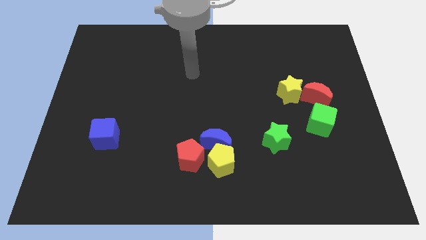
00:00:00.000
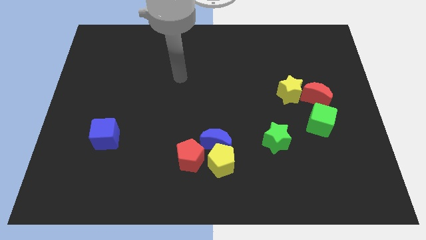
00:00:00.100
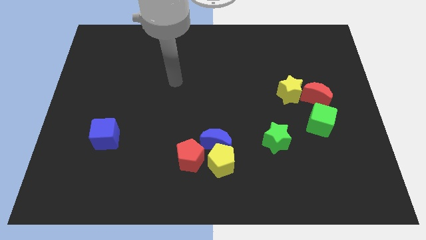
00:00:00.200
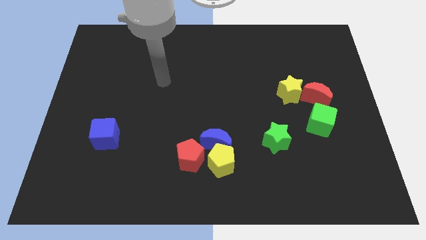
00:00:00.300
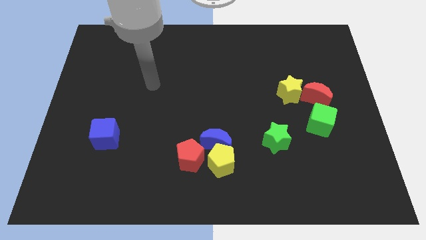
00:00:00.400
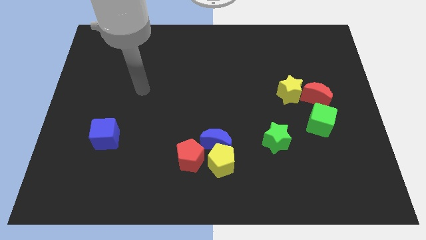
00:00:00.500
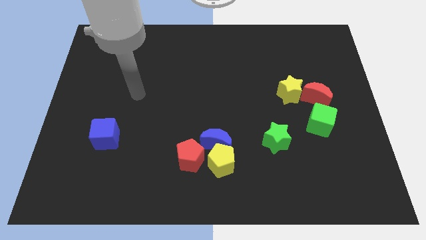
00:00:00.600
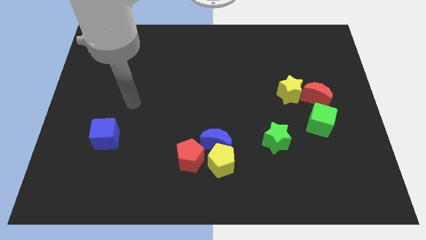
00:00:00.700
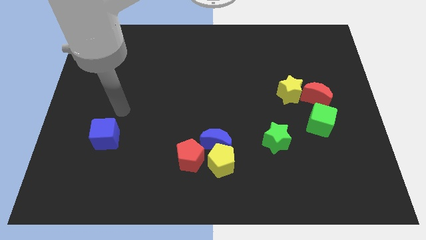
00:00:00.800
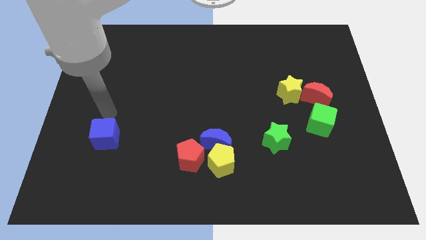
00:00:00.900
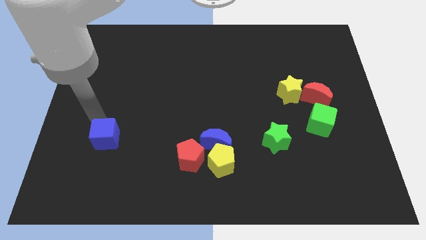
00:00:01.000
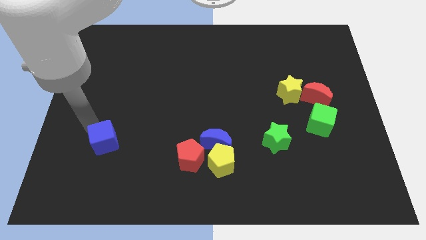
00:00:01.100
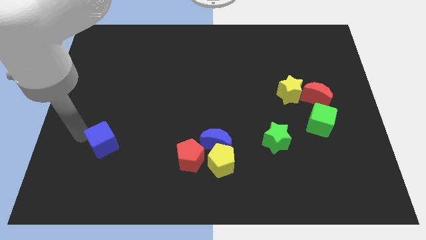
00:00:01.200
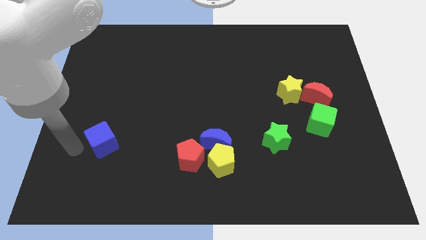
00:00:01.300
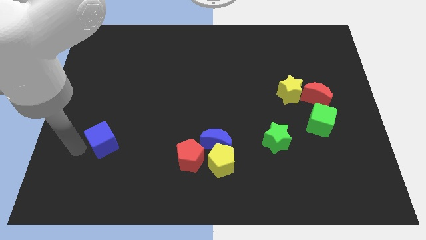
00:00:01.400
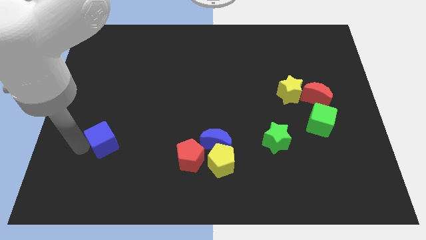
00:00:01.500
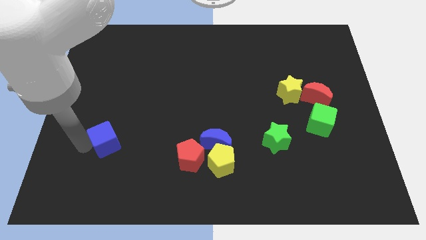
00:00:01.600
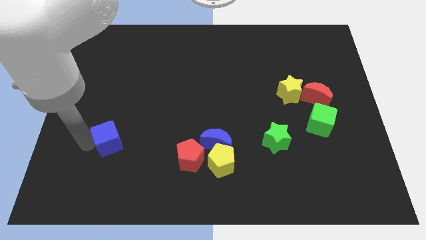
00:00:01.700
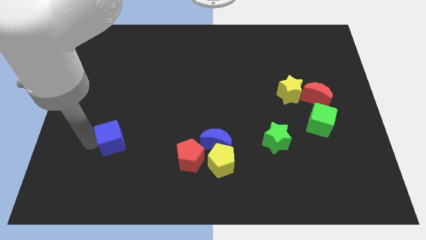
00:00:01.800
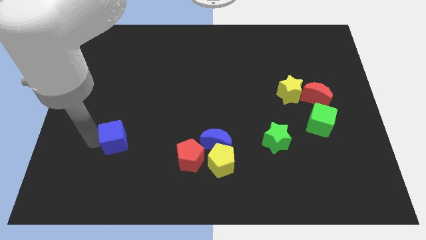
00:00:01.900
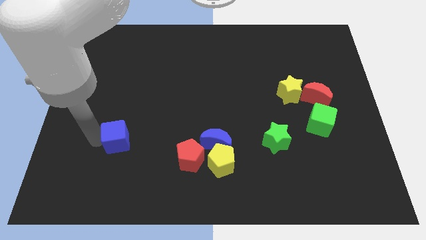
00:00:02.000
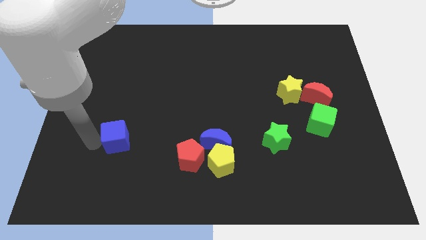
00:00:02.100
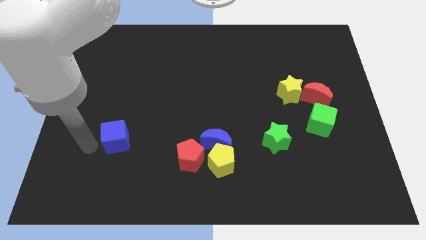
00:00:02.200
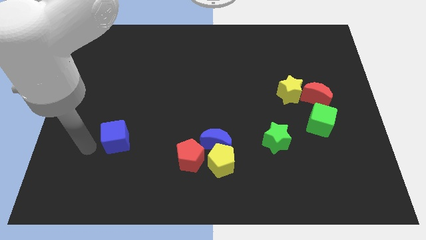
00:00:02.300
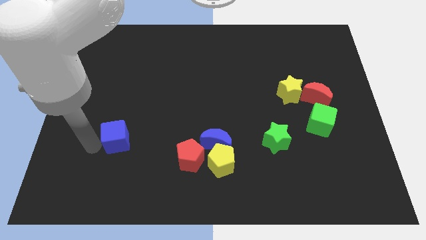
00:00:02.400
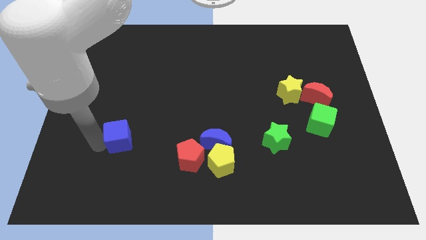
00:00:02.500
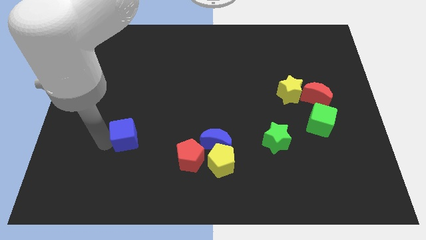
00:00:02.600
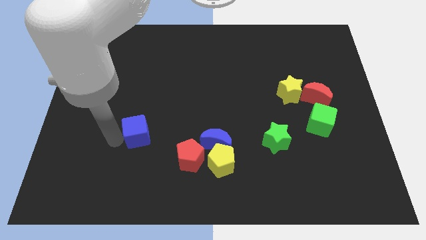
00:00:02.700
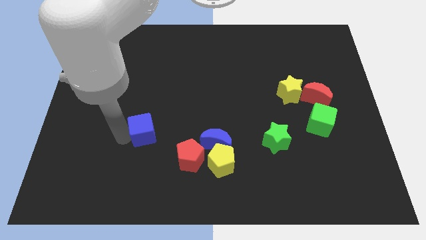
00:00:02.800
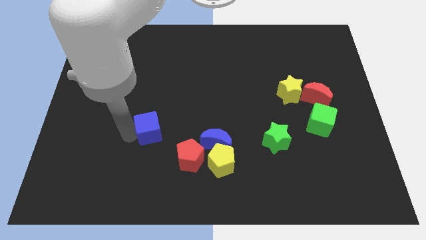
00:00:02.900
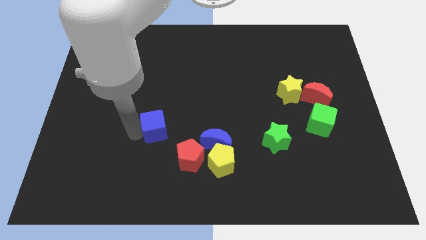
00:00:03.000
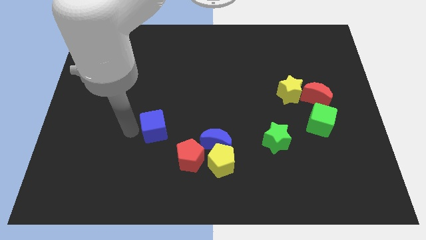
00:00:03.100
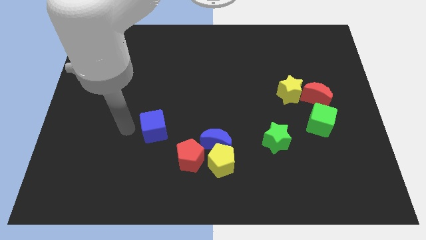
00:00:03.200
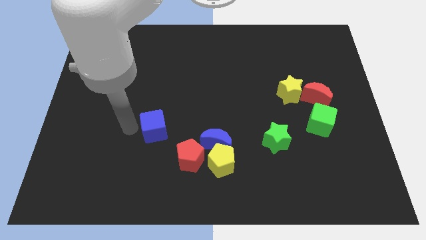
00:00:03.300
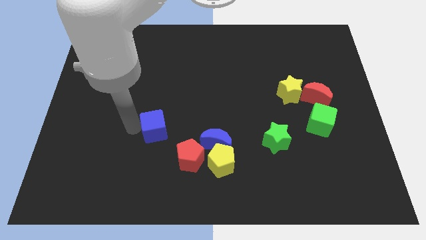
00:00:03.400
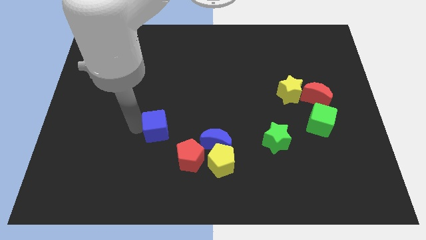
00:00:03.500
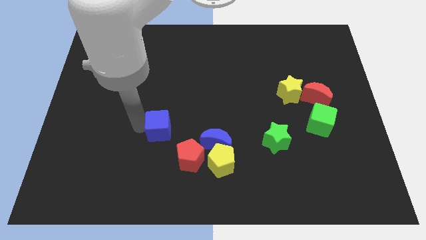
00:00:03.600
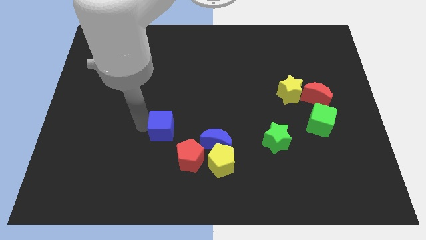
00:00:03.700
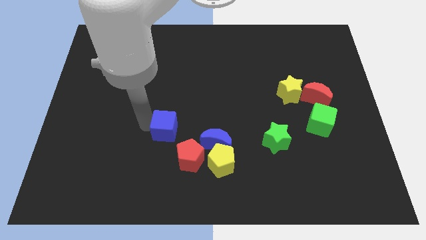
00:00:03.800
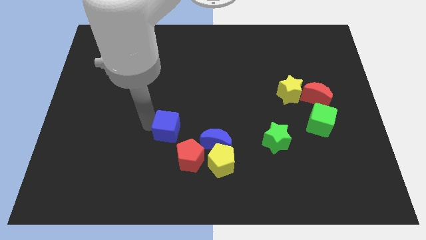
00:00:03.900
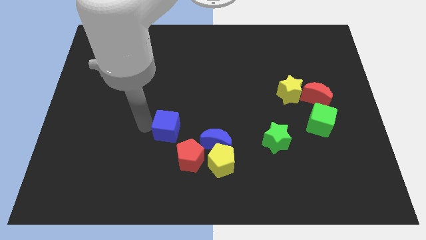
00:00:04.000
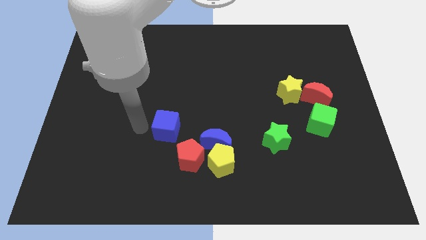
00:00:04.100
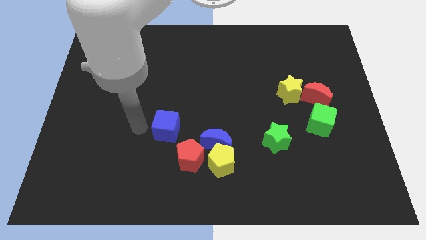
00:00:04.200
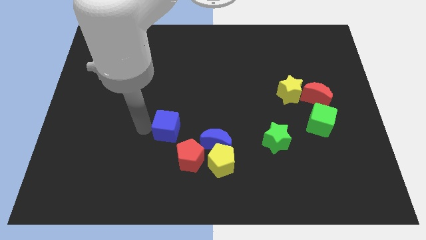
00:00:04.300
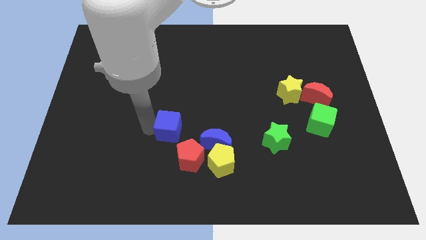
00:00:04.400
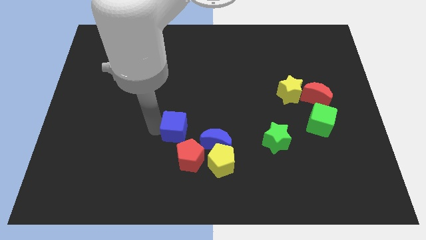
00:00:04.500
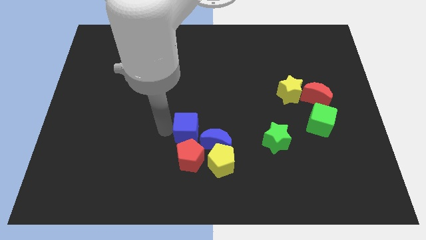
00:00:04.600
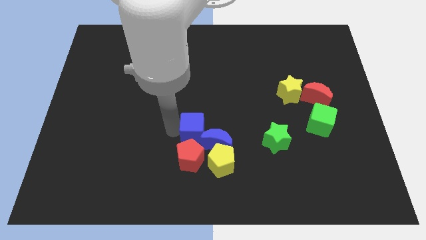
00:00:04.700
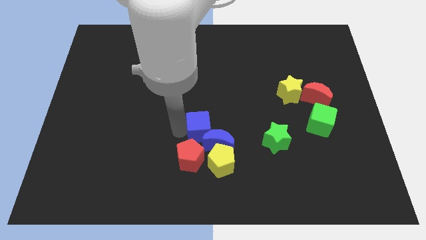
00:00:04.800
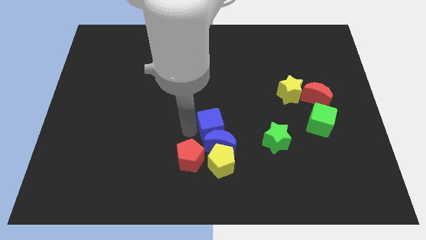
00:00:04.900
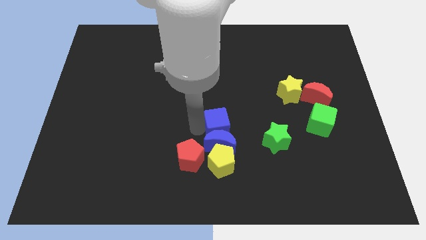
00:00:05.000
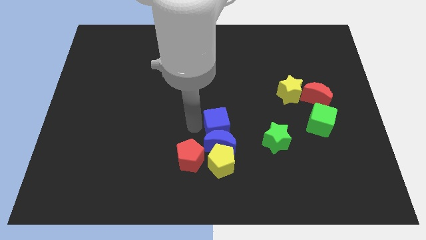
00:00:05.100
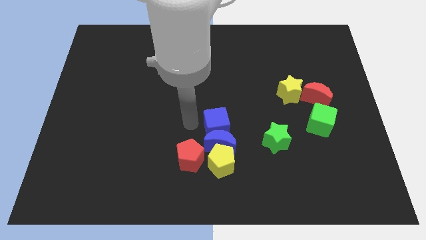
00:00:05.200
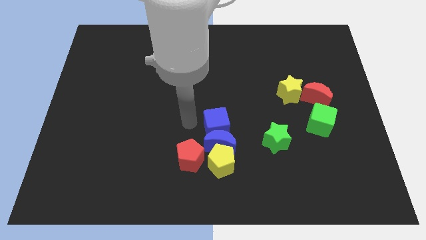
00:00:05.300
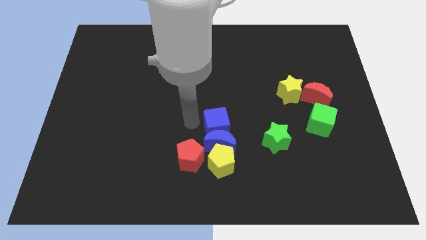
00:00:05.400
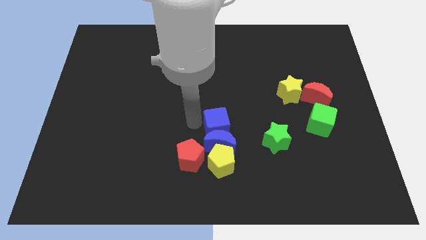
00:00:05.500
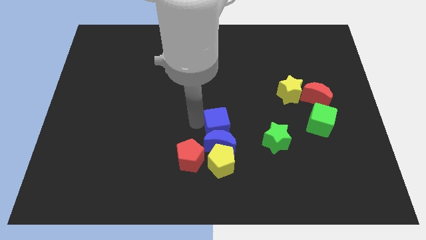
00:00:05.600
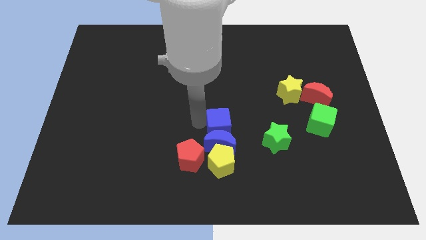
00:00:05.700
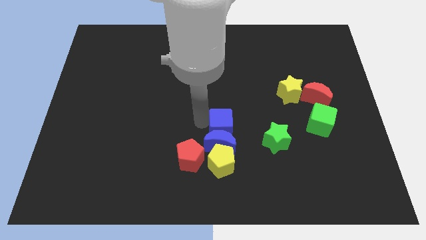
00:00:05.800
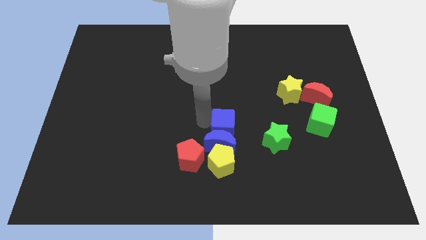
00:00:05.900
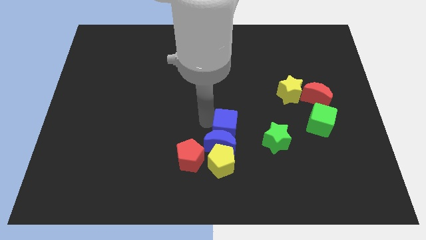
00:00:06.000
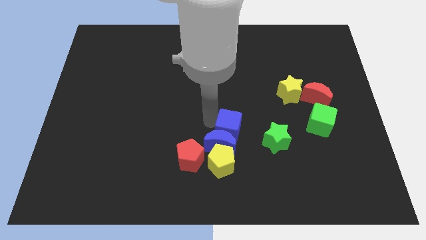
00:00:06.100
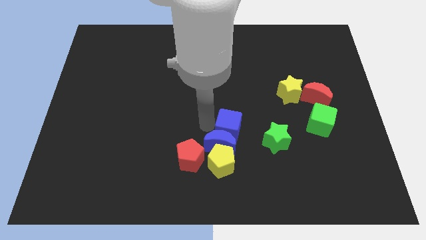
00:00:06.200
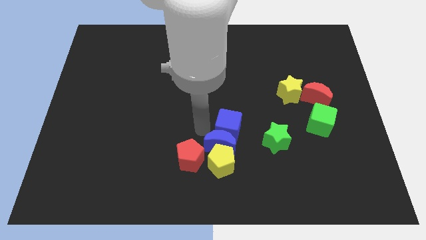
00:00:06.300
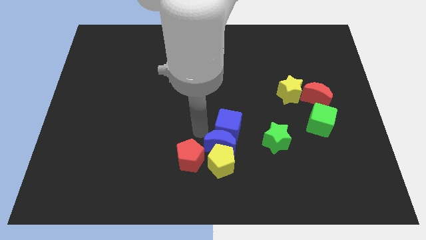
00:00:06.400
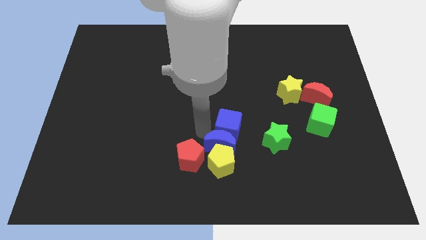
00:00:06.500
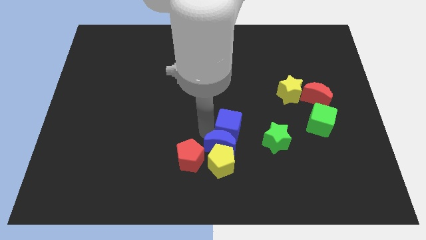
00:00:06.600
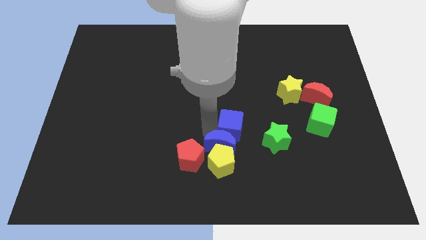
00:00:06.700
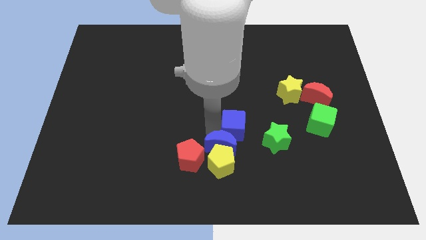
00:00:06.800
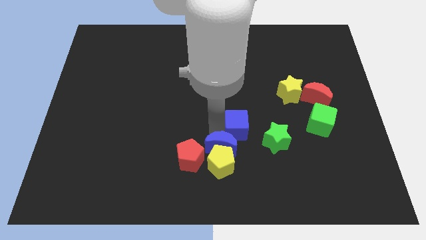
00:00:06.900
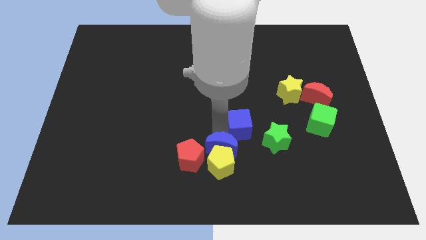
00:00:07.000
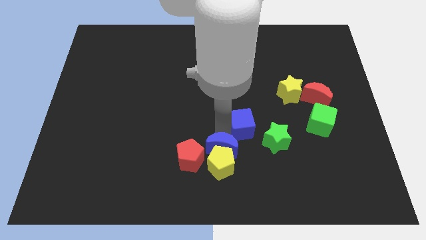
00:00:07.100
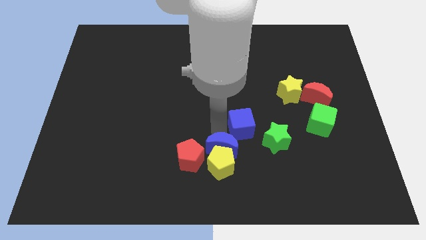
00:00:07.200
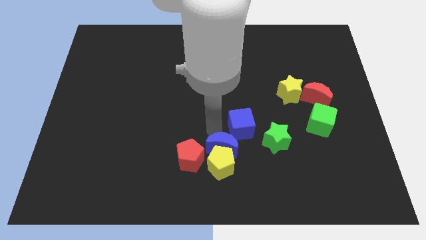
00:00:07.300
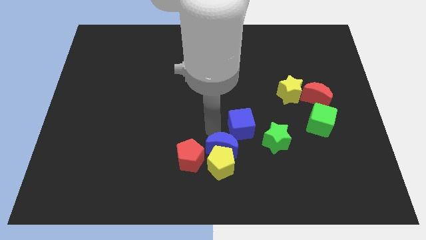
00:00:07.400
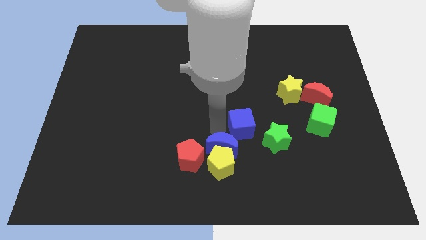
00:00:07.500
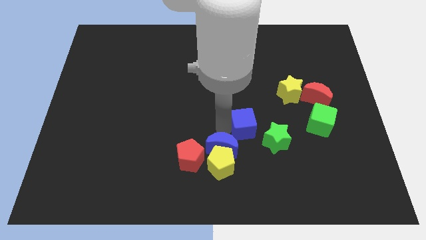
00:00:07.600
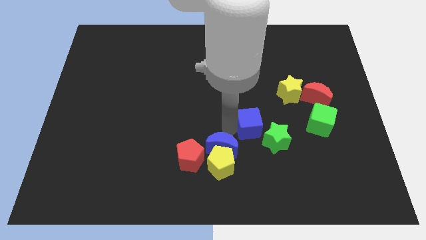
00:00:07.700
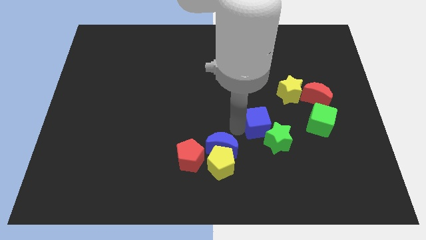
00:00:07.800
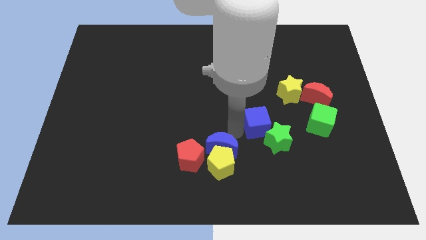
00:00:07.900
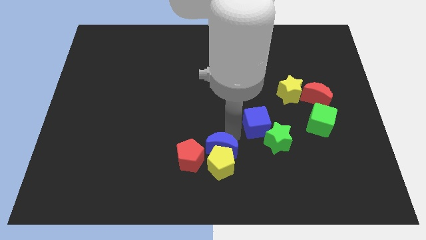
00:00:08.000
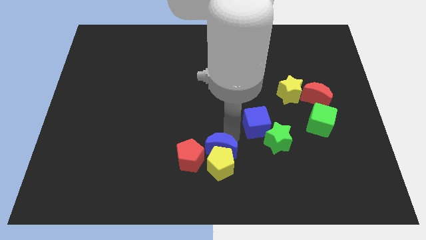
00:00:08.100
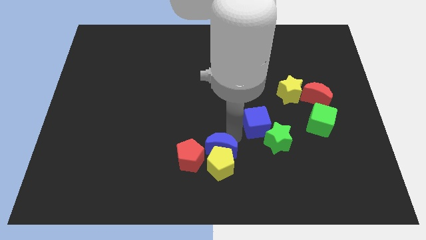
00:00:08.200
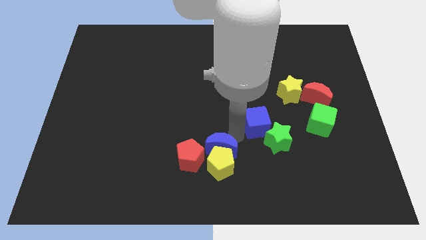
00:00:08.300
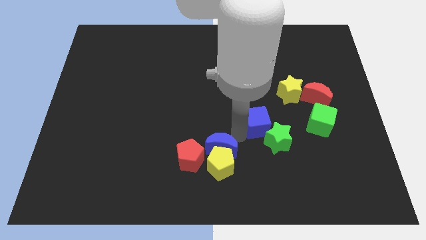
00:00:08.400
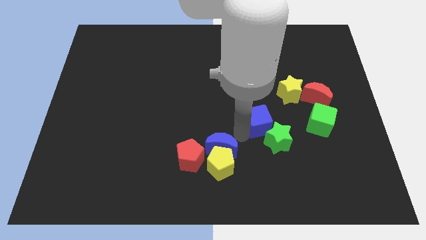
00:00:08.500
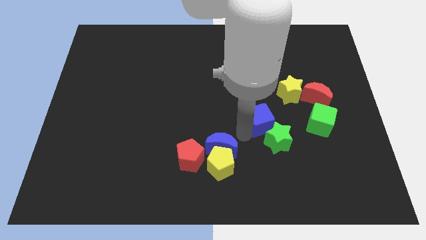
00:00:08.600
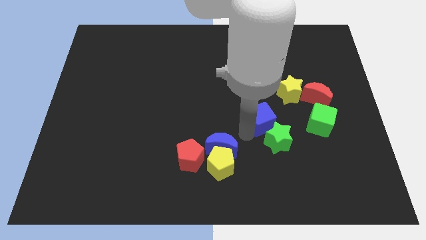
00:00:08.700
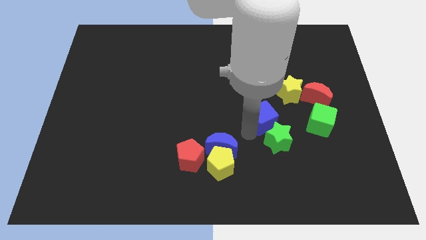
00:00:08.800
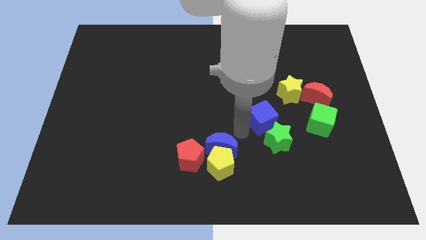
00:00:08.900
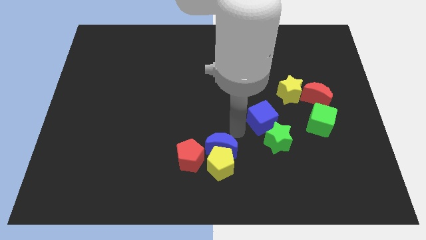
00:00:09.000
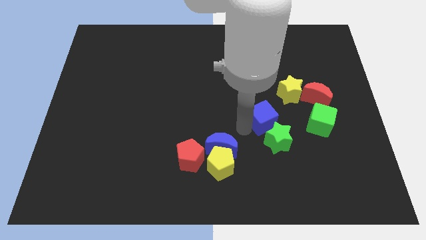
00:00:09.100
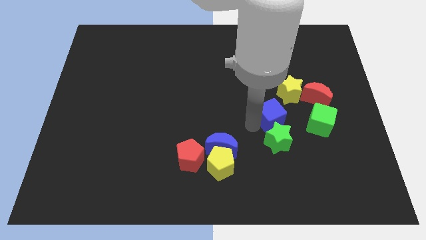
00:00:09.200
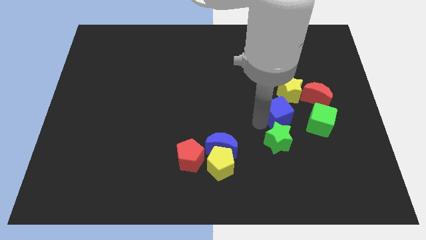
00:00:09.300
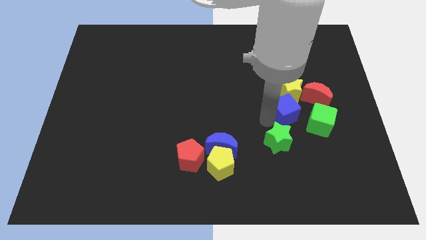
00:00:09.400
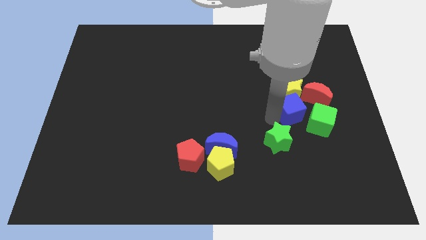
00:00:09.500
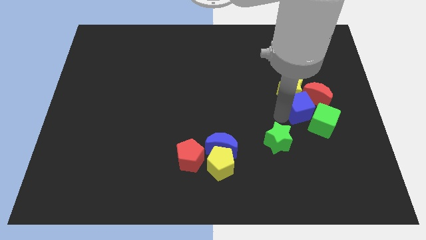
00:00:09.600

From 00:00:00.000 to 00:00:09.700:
slide the blue cube to the red moon
